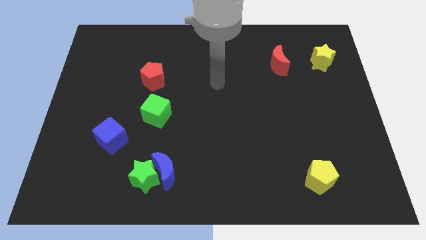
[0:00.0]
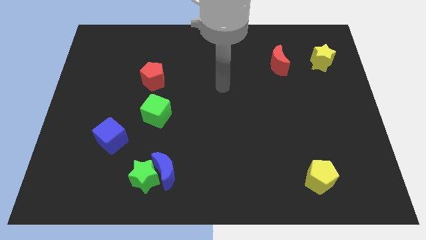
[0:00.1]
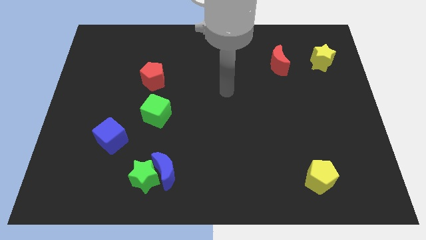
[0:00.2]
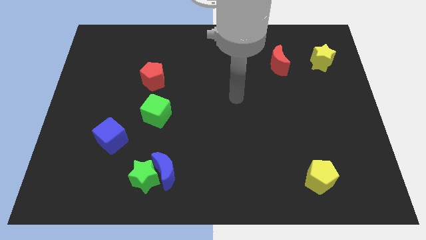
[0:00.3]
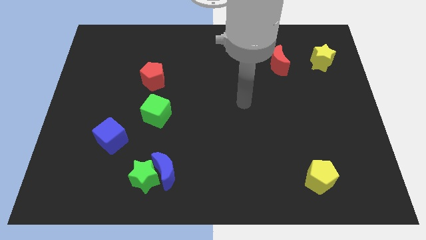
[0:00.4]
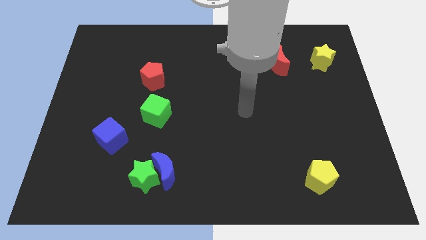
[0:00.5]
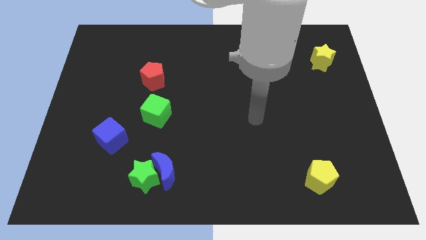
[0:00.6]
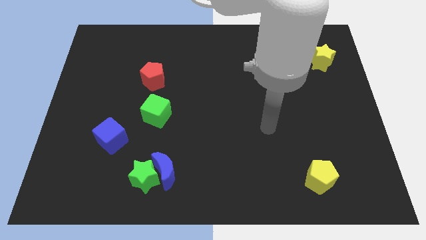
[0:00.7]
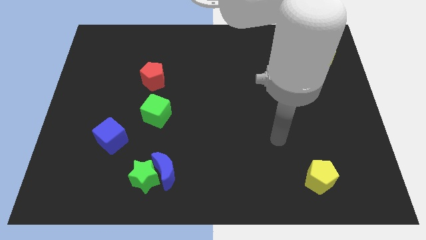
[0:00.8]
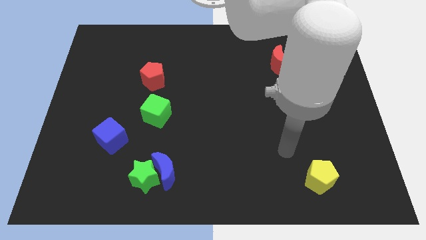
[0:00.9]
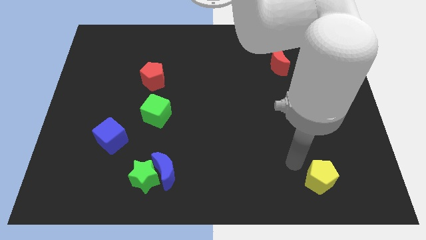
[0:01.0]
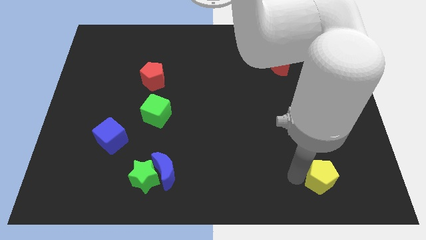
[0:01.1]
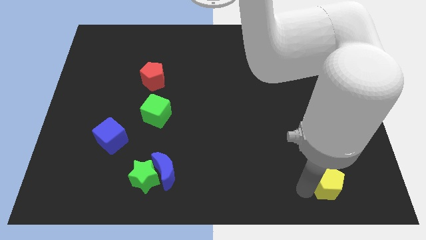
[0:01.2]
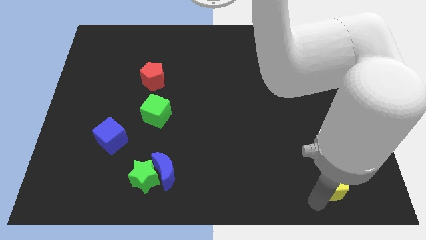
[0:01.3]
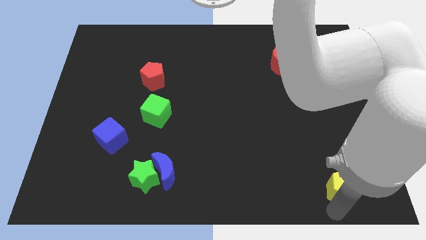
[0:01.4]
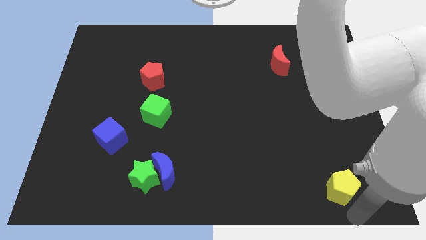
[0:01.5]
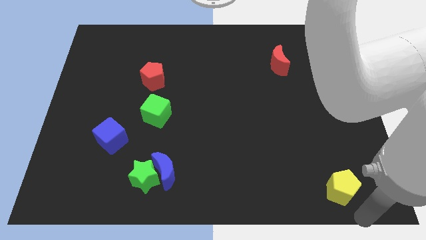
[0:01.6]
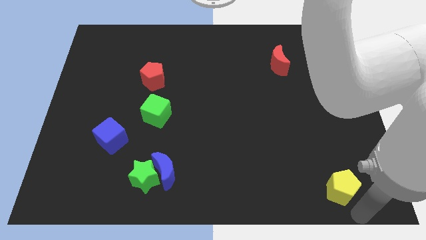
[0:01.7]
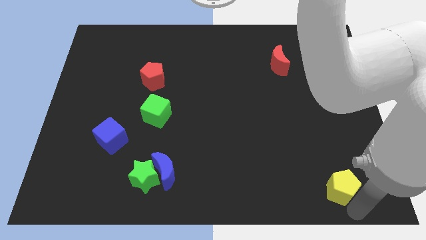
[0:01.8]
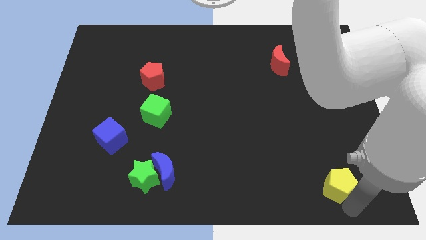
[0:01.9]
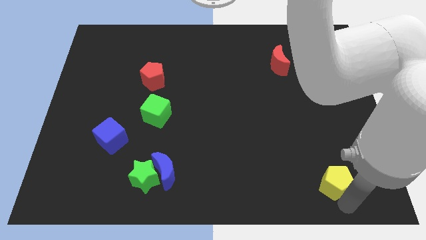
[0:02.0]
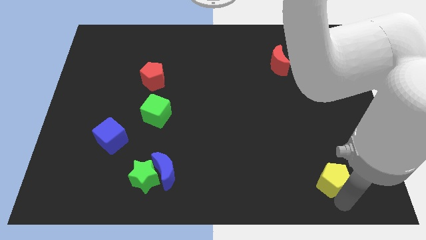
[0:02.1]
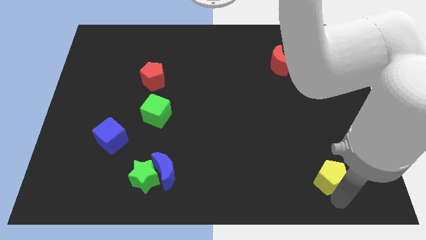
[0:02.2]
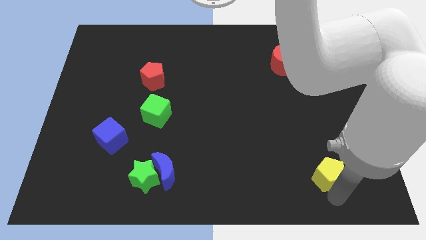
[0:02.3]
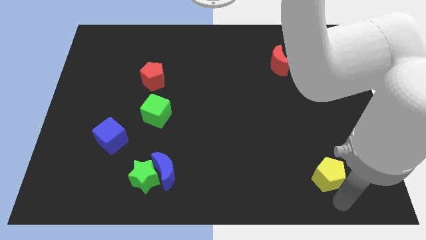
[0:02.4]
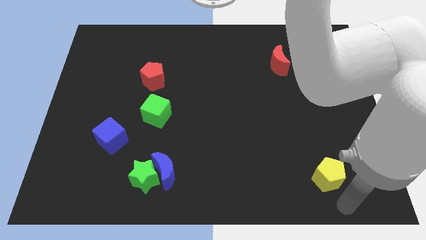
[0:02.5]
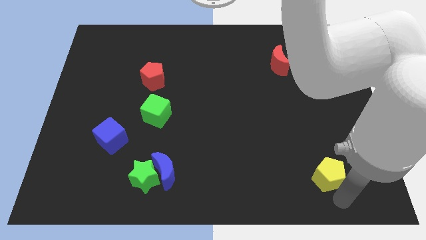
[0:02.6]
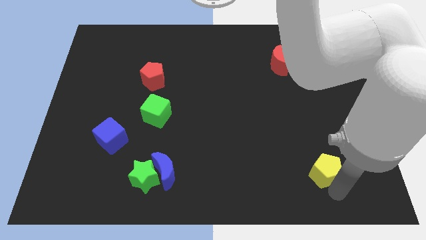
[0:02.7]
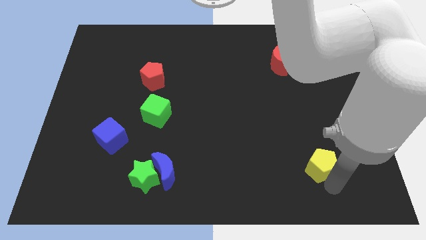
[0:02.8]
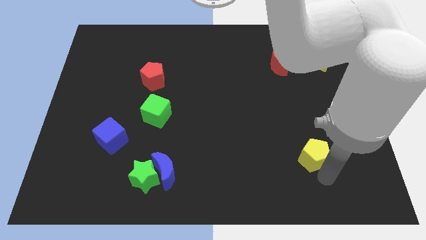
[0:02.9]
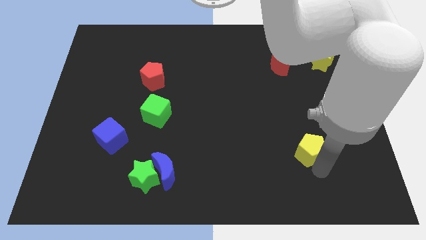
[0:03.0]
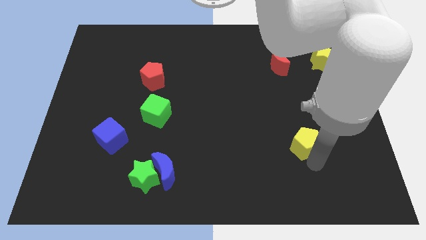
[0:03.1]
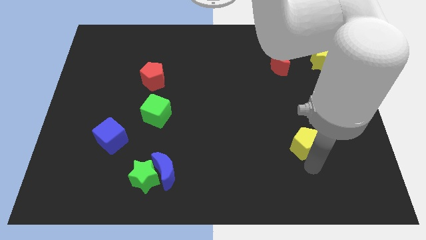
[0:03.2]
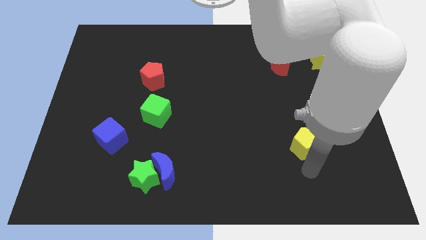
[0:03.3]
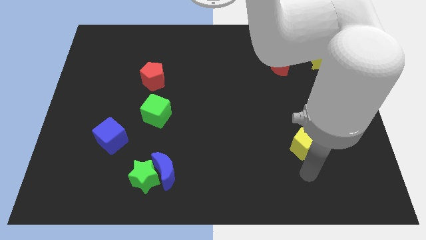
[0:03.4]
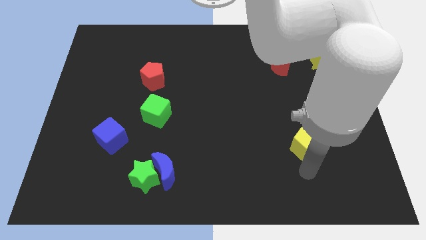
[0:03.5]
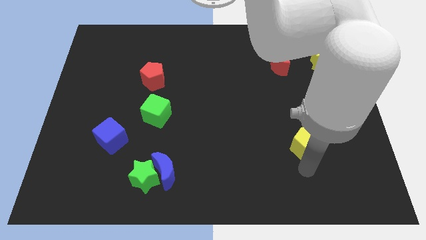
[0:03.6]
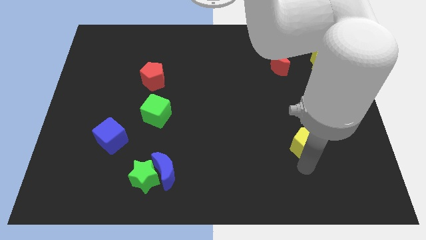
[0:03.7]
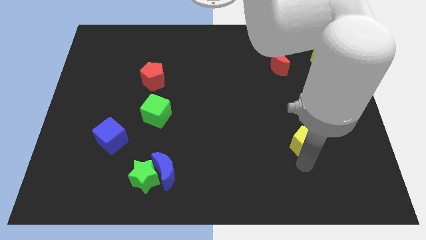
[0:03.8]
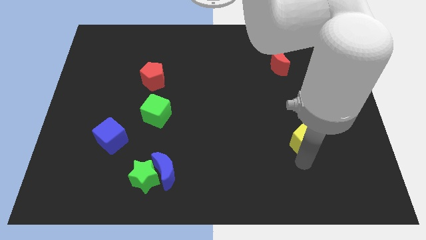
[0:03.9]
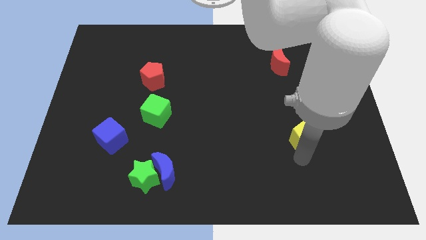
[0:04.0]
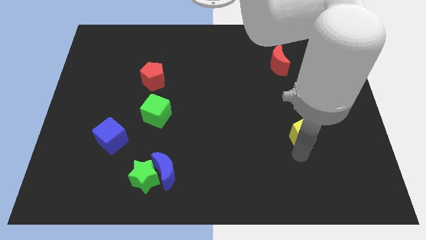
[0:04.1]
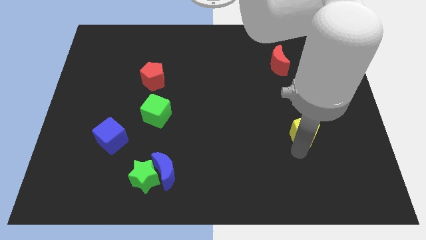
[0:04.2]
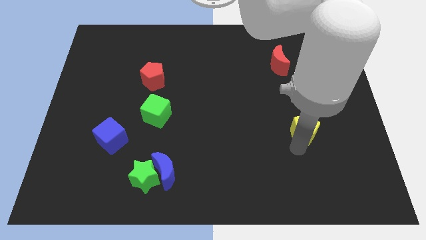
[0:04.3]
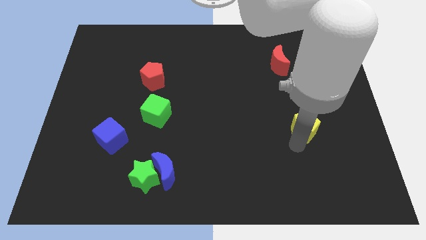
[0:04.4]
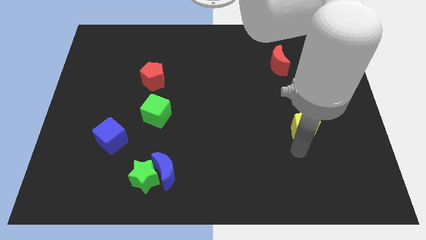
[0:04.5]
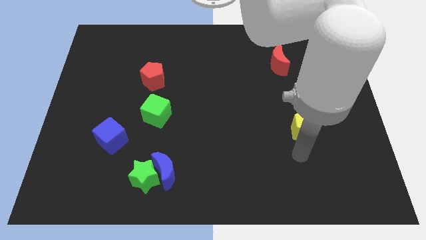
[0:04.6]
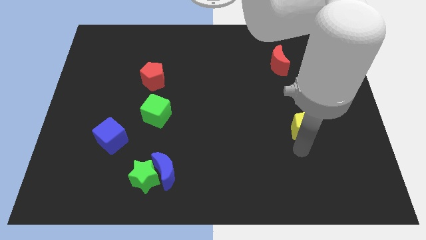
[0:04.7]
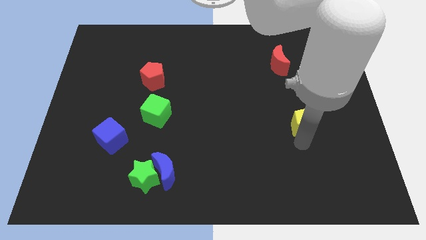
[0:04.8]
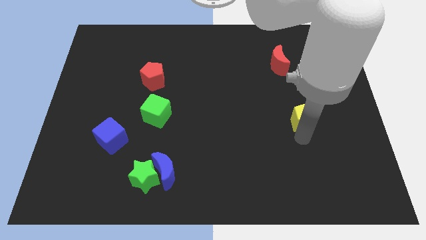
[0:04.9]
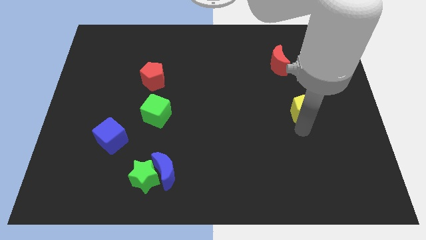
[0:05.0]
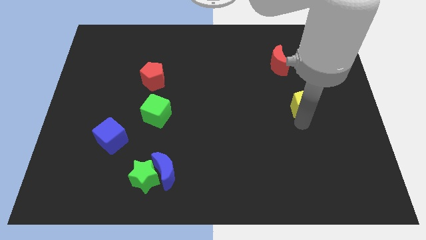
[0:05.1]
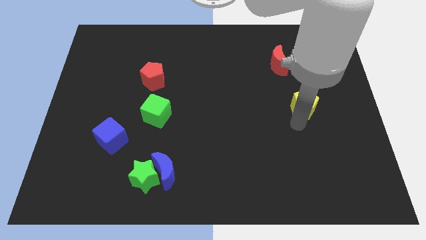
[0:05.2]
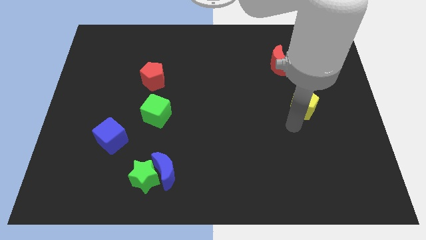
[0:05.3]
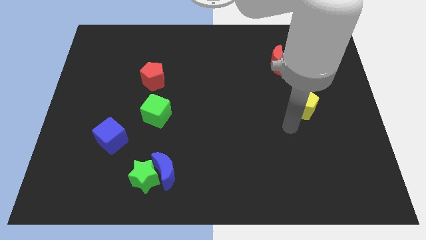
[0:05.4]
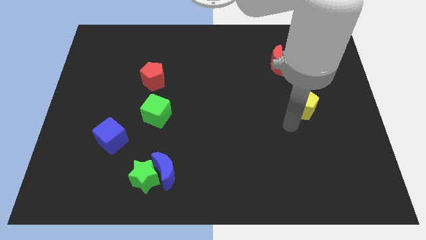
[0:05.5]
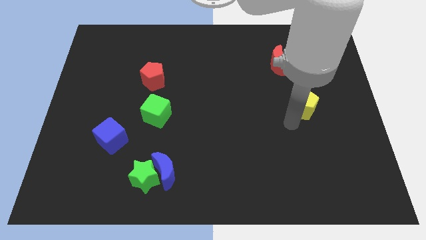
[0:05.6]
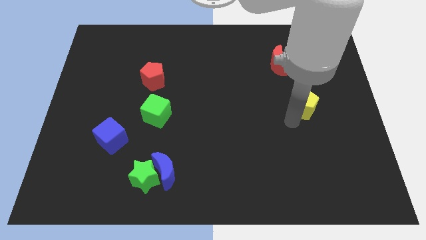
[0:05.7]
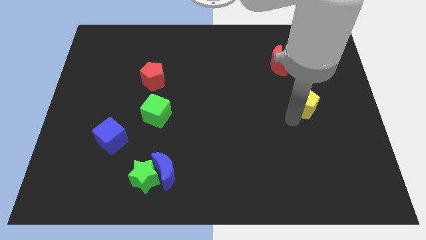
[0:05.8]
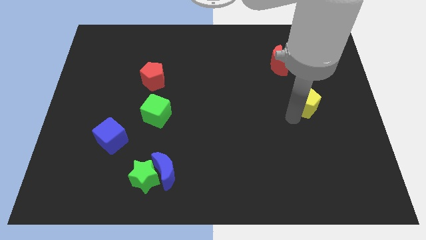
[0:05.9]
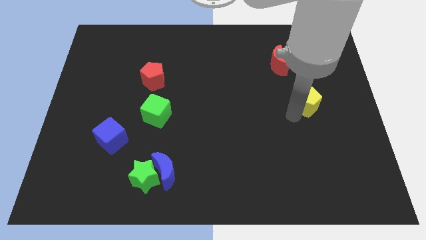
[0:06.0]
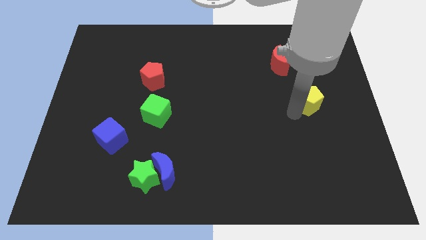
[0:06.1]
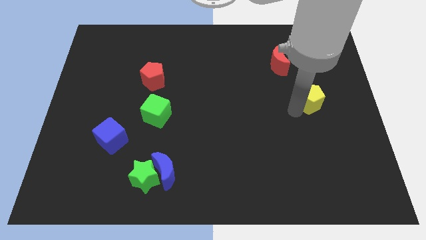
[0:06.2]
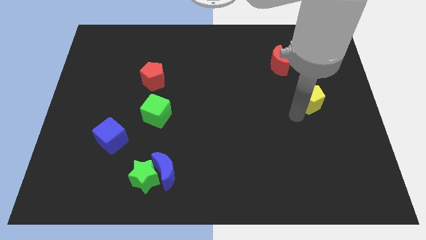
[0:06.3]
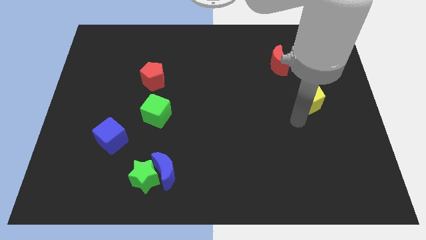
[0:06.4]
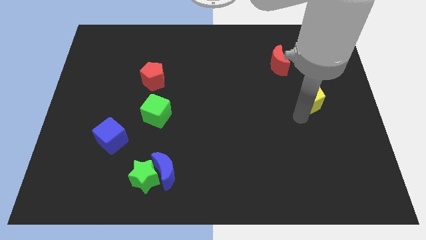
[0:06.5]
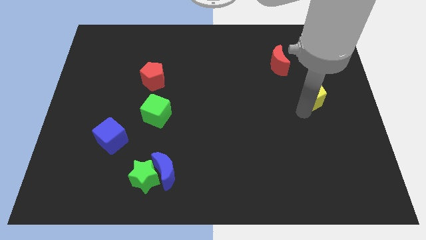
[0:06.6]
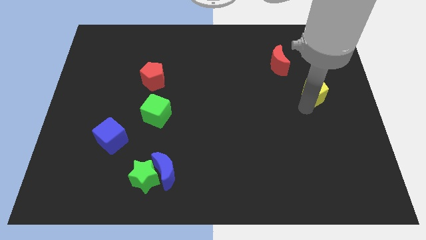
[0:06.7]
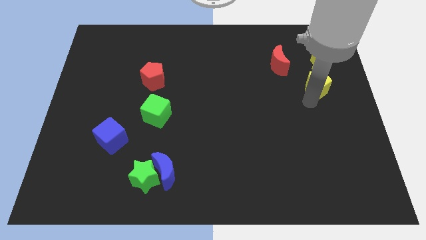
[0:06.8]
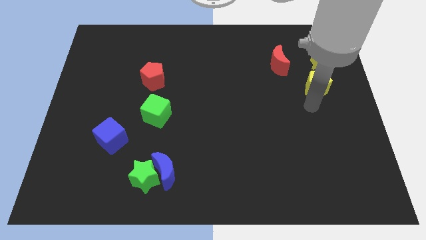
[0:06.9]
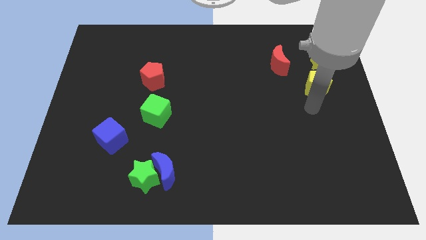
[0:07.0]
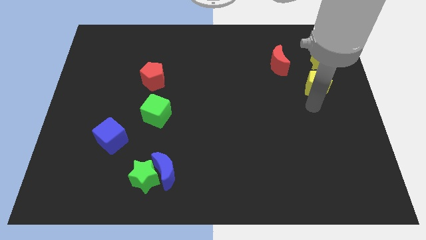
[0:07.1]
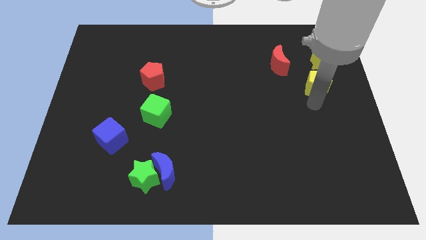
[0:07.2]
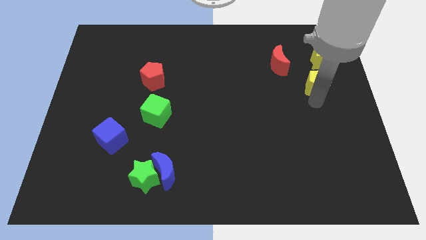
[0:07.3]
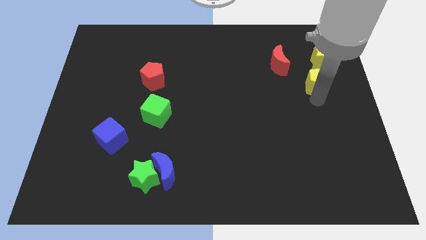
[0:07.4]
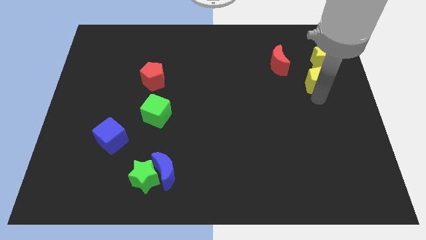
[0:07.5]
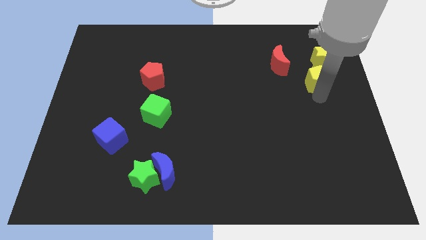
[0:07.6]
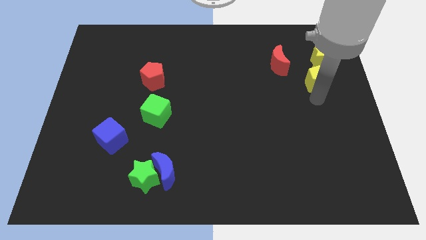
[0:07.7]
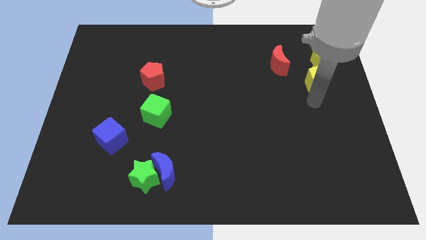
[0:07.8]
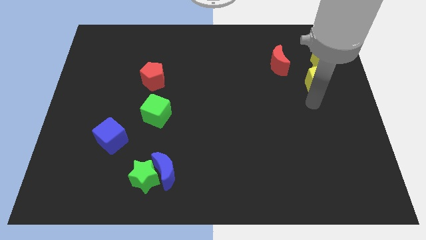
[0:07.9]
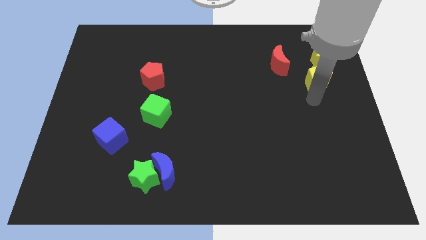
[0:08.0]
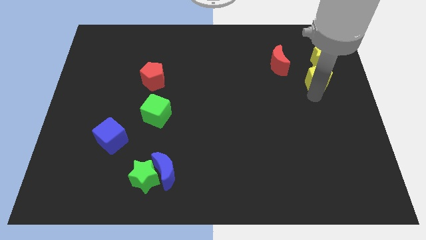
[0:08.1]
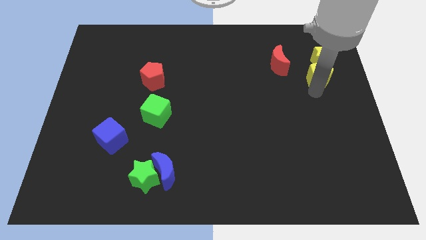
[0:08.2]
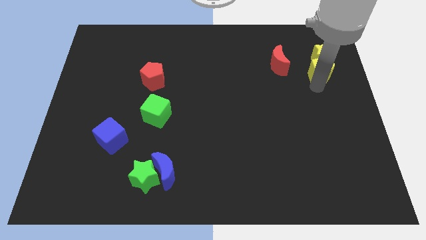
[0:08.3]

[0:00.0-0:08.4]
put the yellow pentagon next to the yellow star
